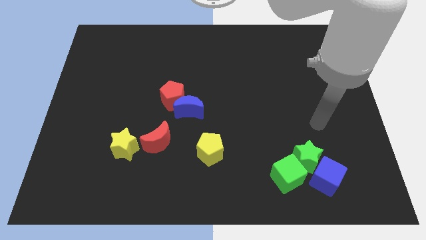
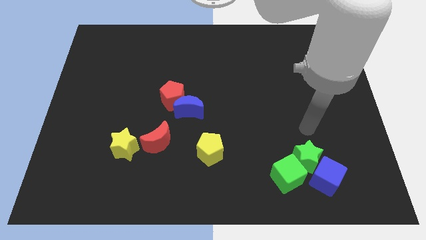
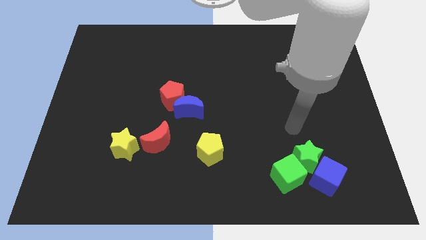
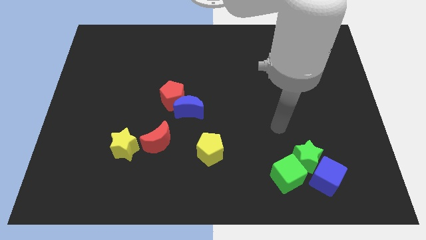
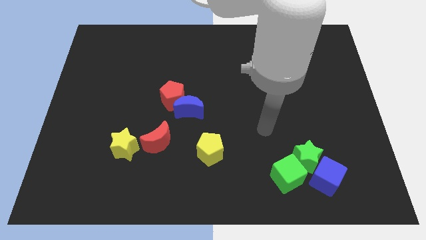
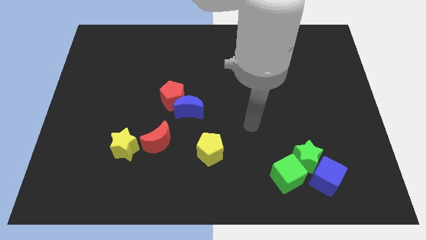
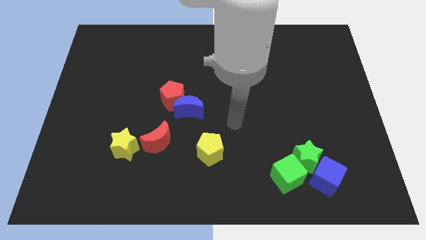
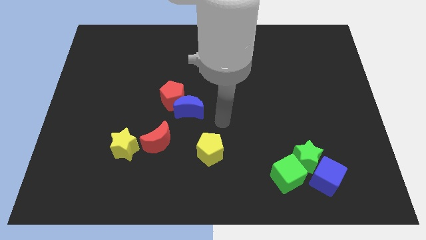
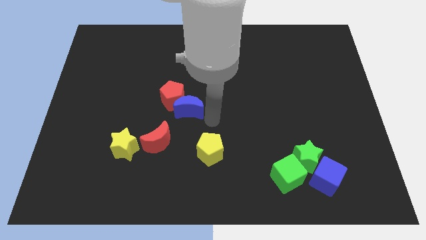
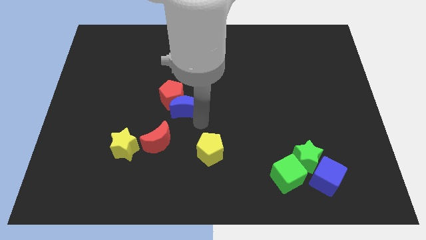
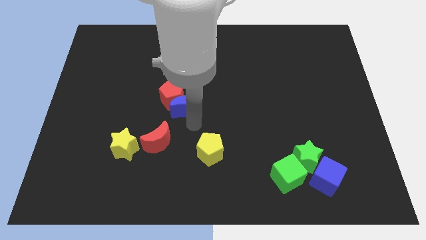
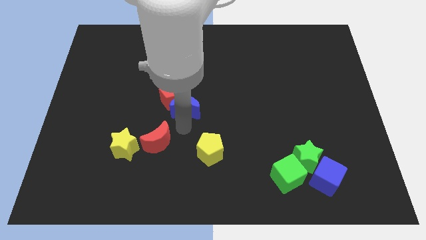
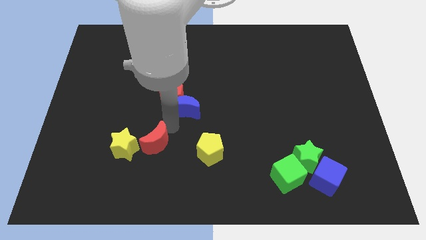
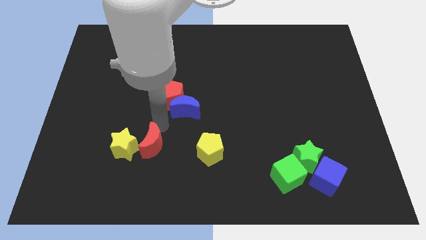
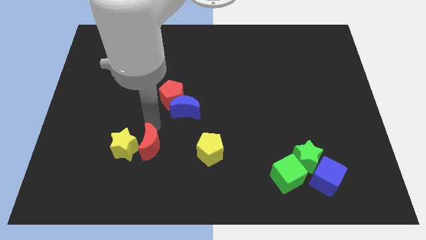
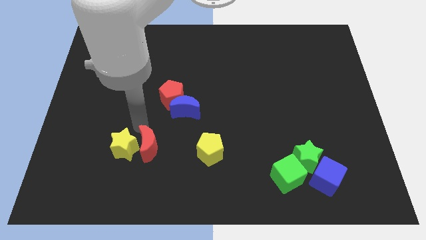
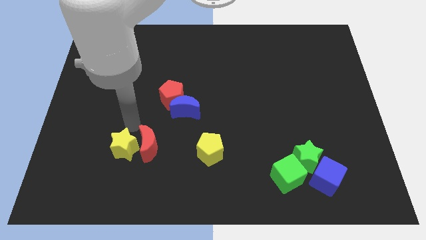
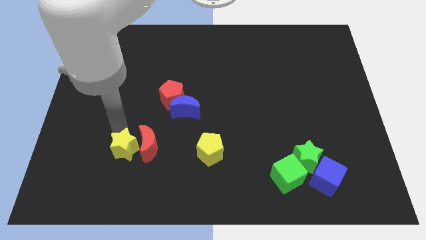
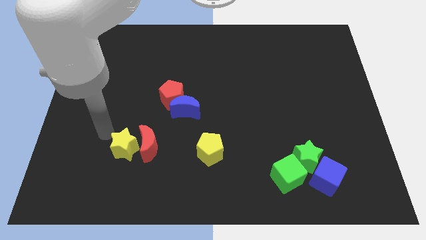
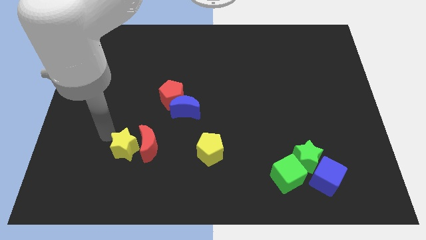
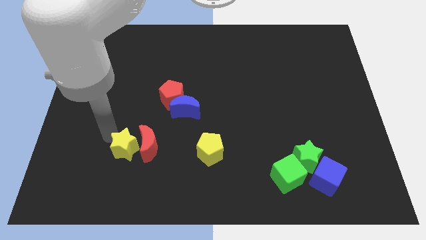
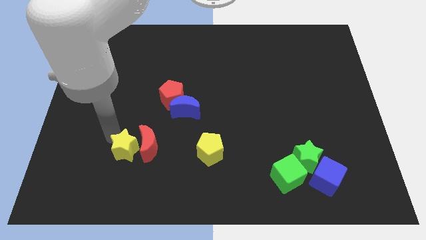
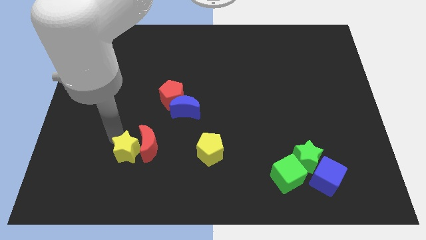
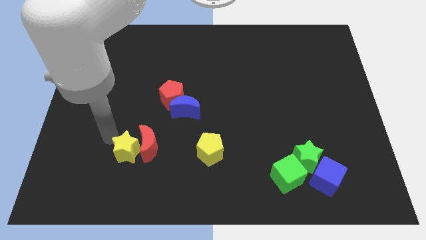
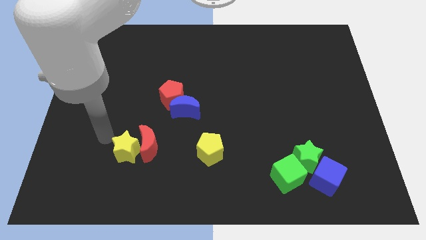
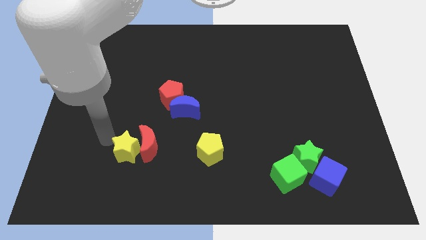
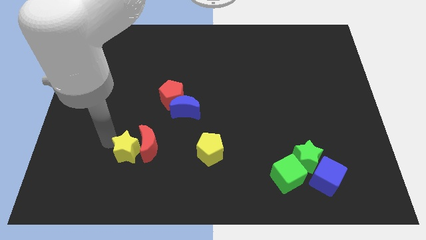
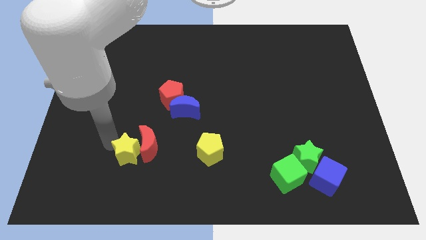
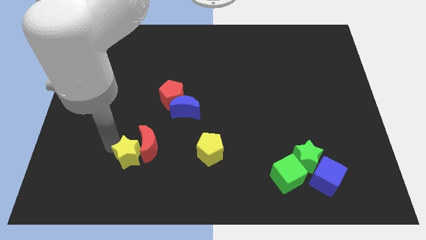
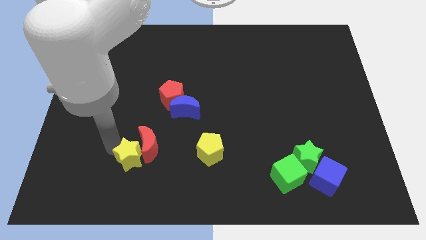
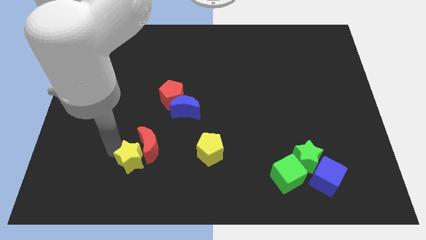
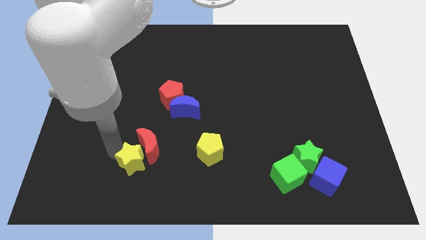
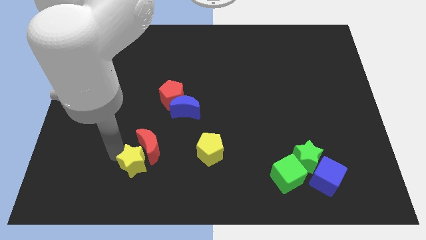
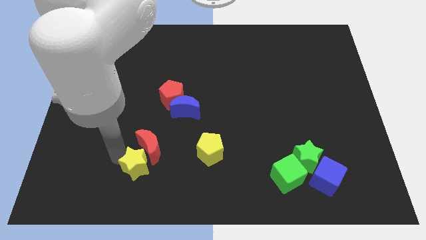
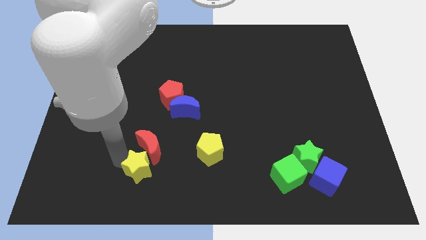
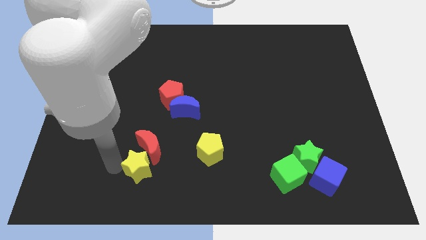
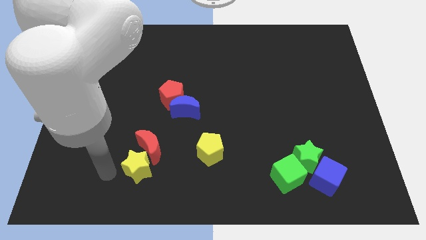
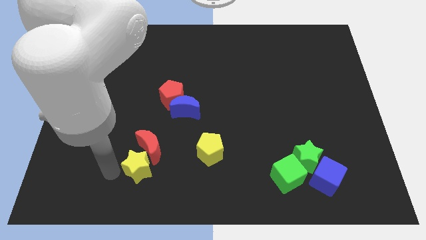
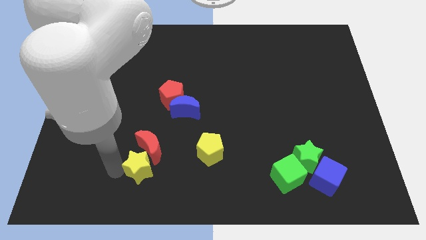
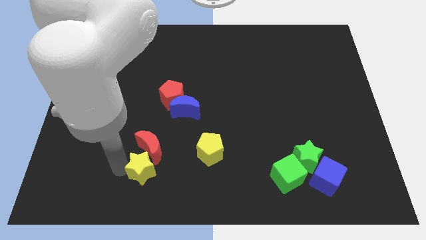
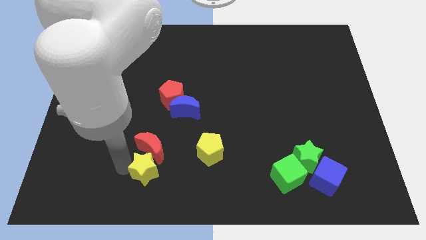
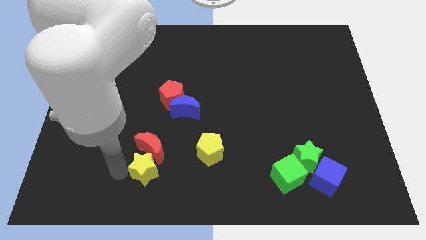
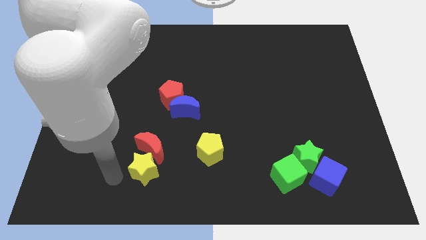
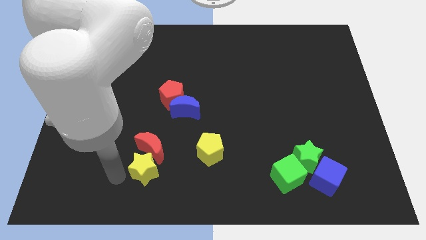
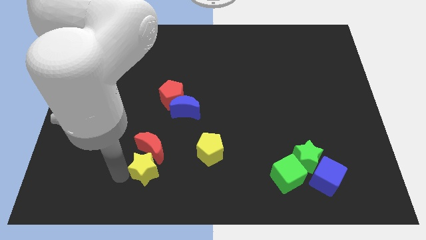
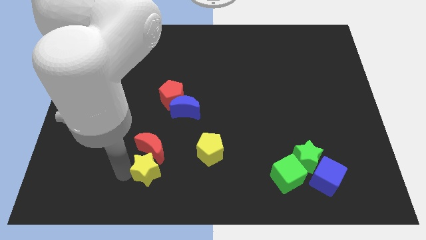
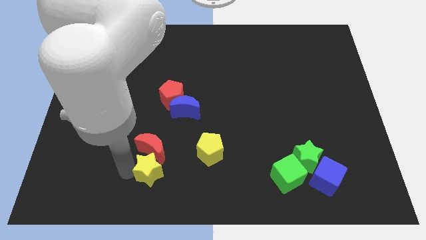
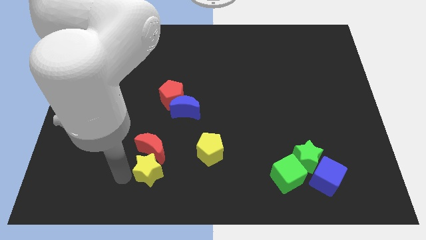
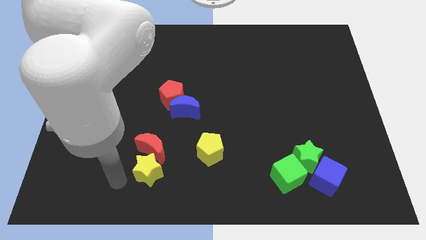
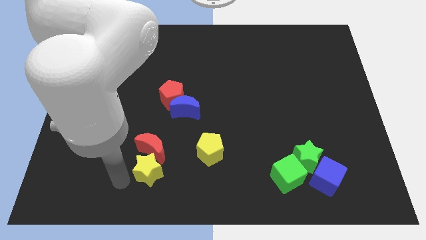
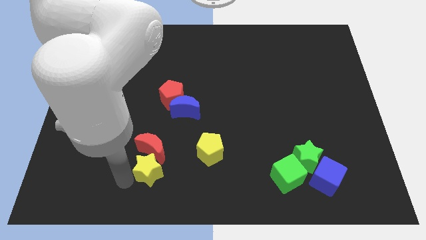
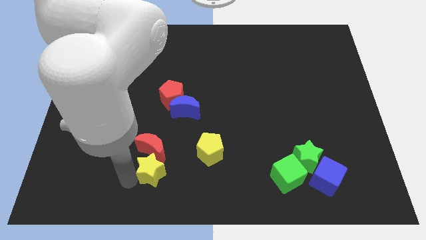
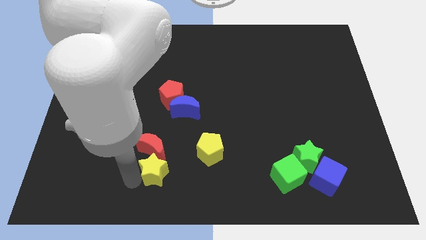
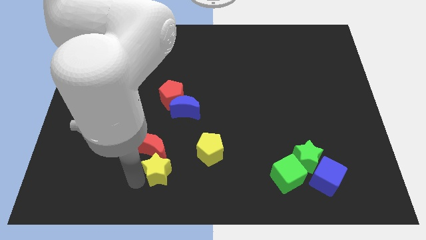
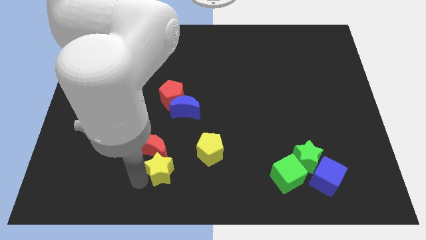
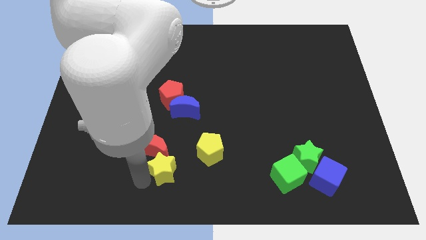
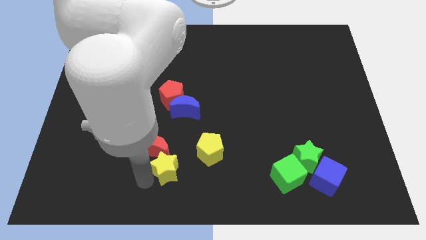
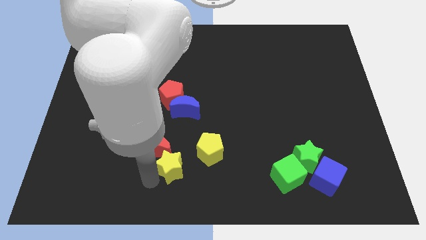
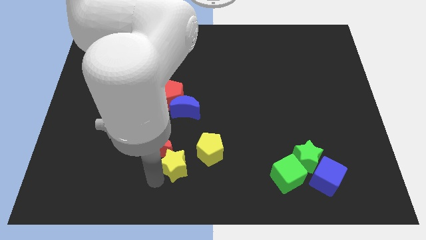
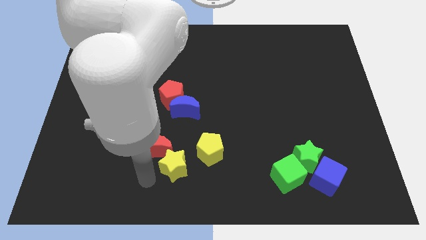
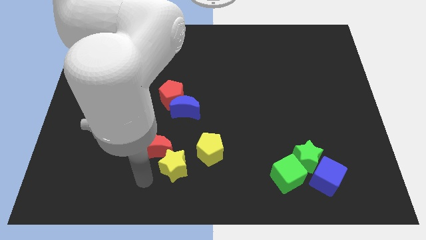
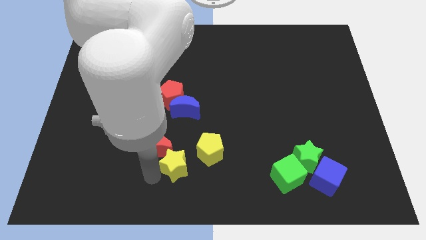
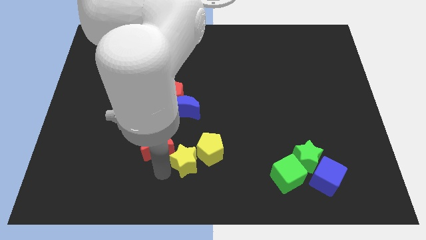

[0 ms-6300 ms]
move the yellow star close to the yellow pentagon
